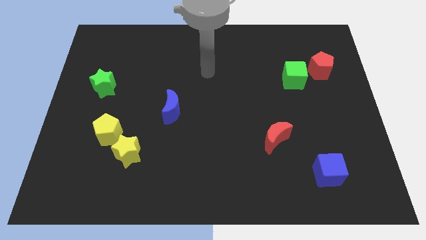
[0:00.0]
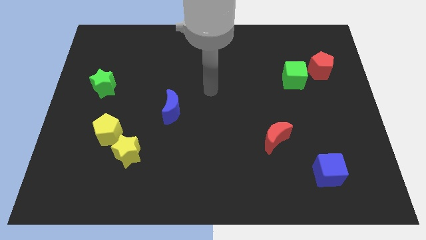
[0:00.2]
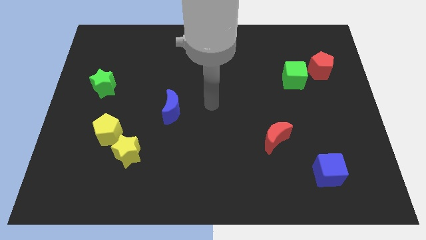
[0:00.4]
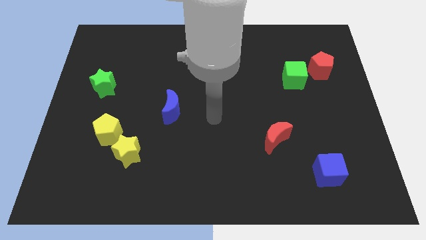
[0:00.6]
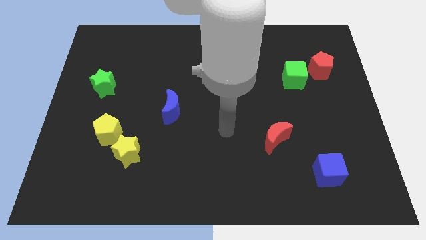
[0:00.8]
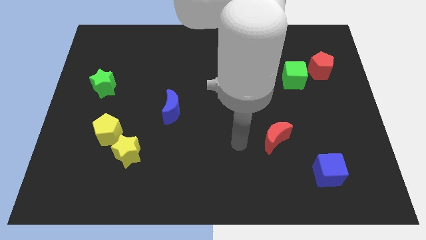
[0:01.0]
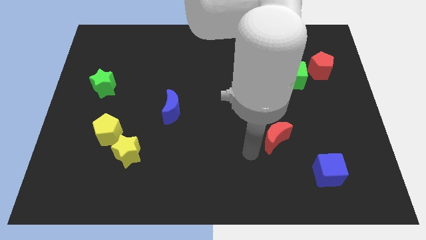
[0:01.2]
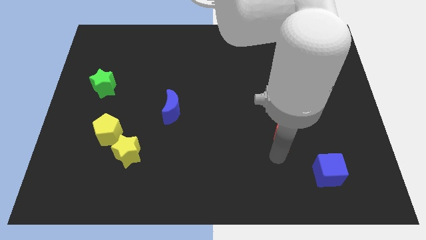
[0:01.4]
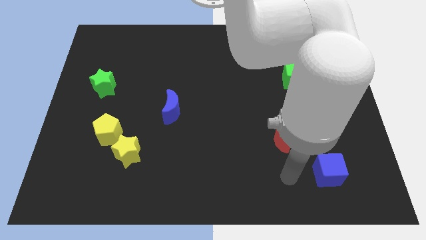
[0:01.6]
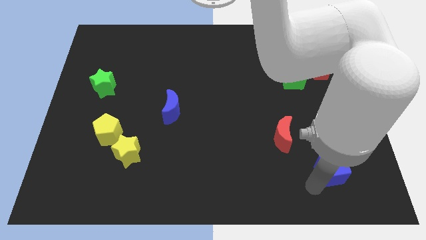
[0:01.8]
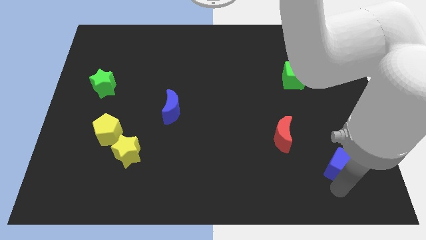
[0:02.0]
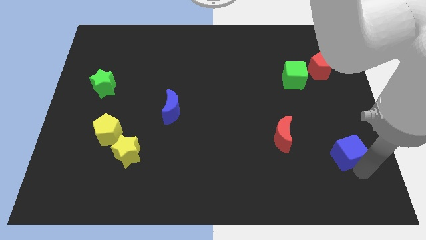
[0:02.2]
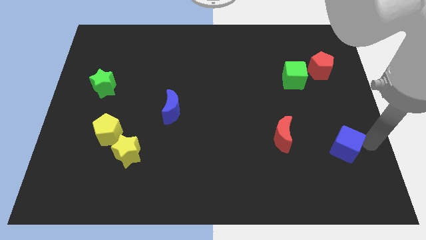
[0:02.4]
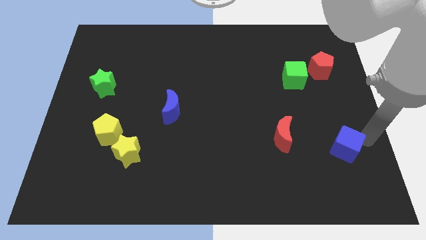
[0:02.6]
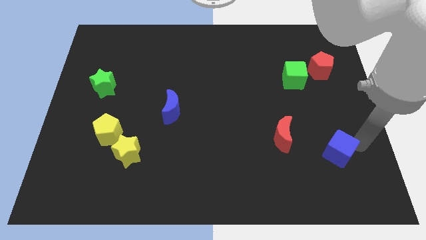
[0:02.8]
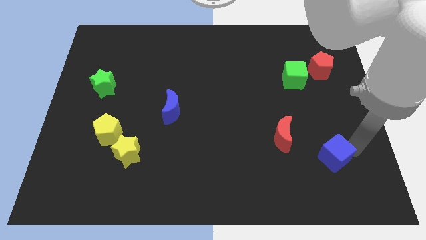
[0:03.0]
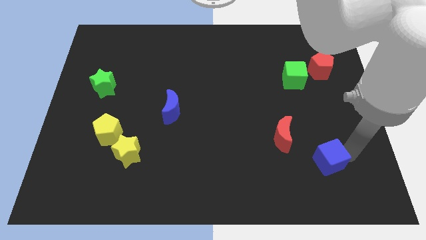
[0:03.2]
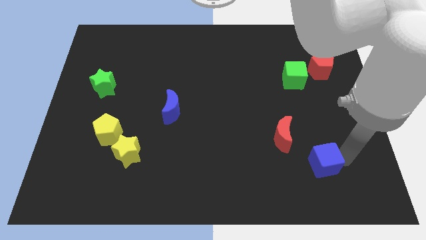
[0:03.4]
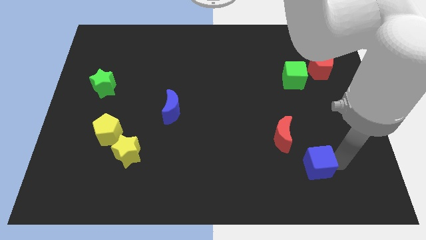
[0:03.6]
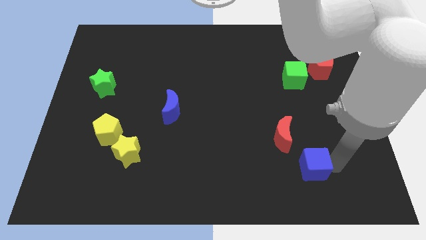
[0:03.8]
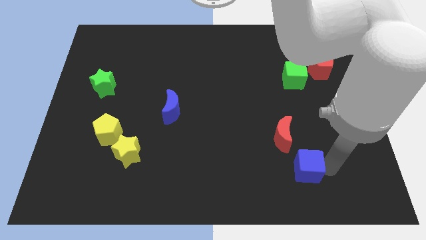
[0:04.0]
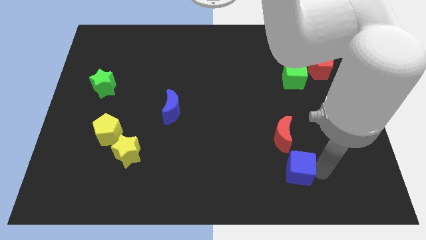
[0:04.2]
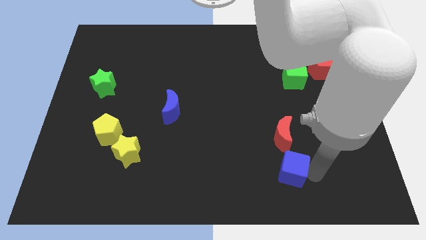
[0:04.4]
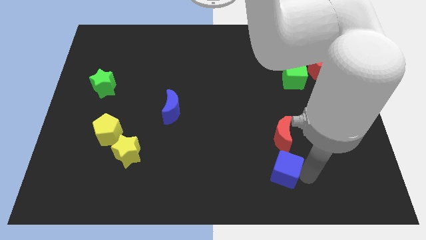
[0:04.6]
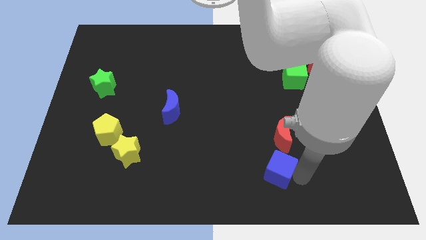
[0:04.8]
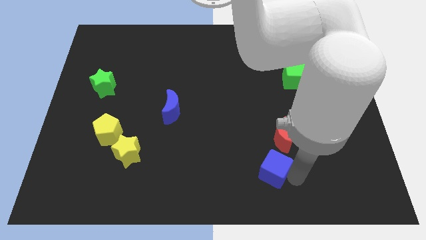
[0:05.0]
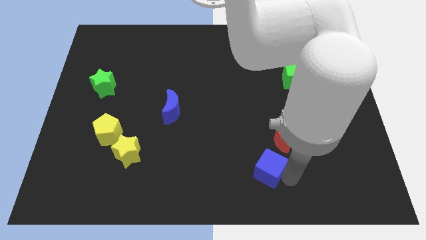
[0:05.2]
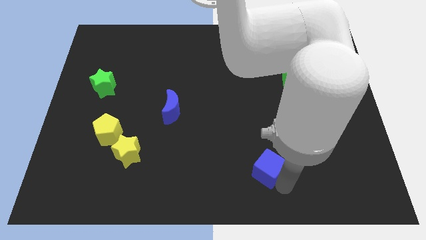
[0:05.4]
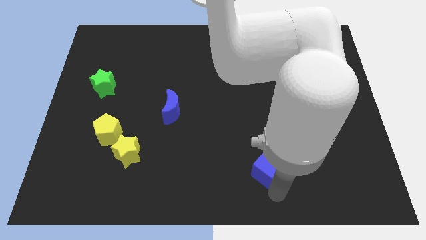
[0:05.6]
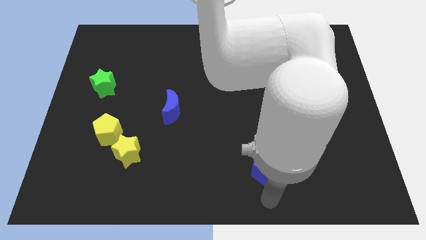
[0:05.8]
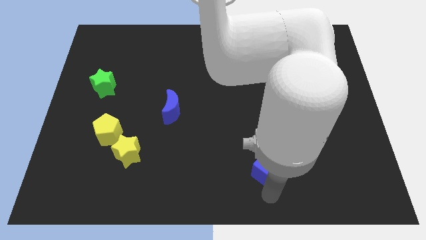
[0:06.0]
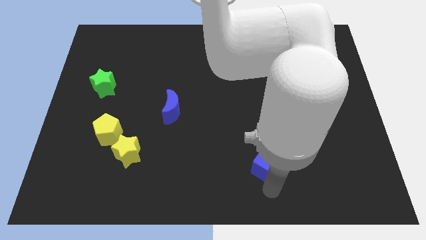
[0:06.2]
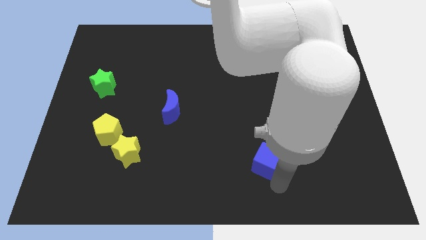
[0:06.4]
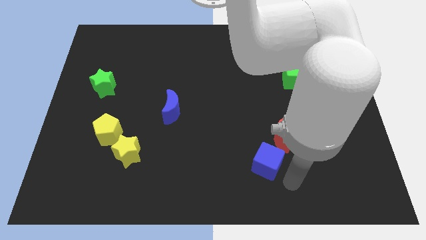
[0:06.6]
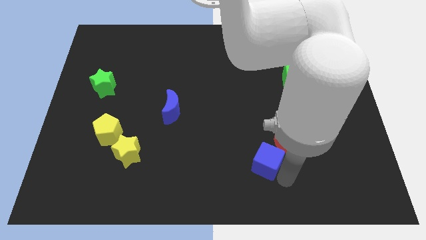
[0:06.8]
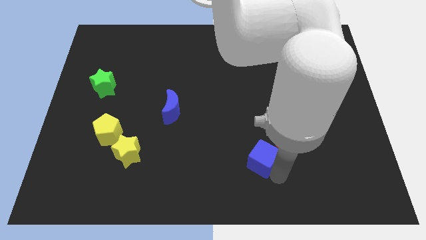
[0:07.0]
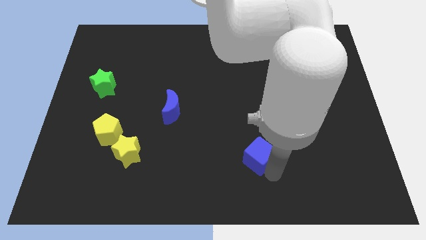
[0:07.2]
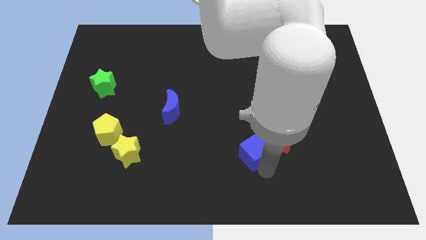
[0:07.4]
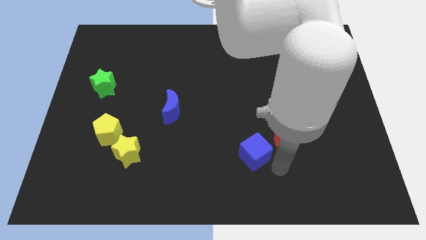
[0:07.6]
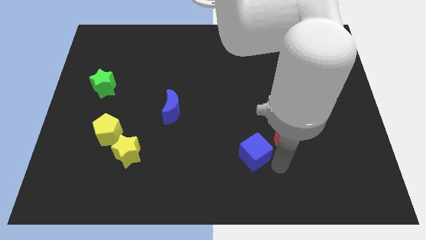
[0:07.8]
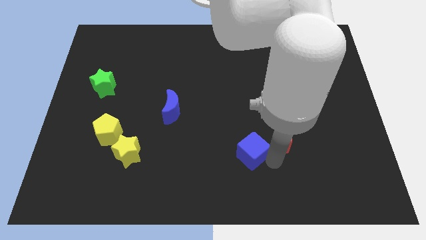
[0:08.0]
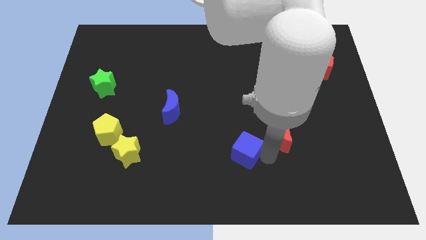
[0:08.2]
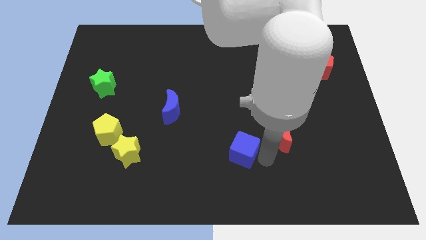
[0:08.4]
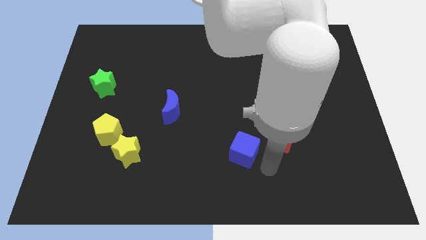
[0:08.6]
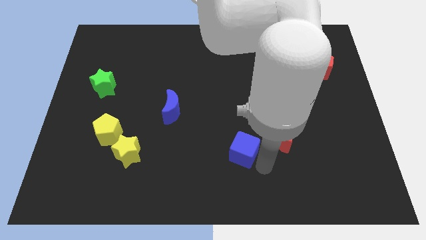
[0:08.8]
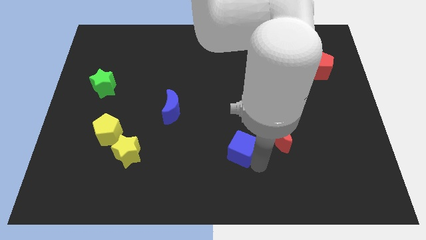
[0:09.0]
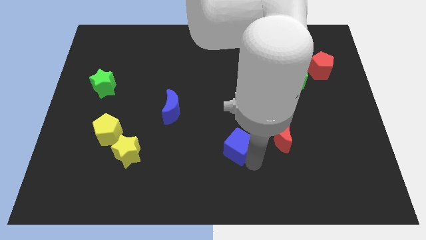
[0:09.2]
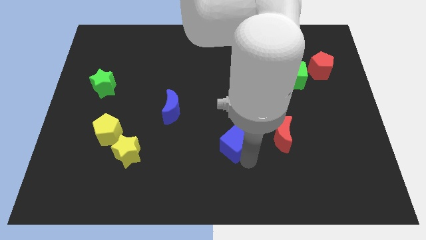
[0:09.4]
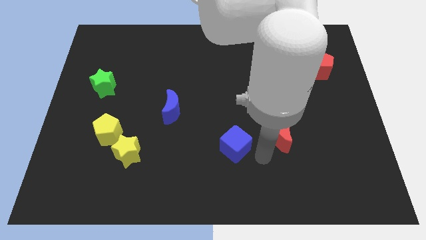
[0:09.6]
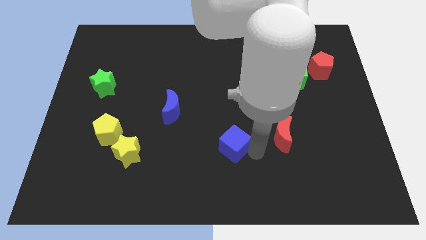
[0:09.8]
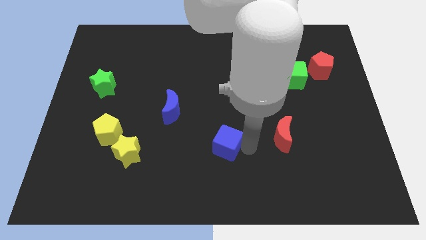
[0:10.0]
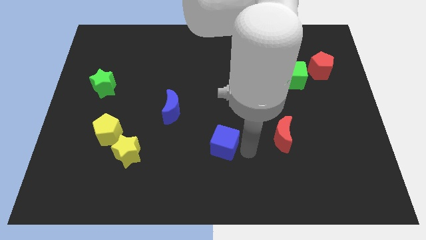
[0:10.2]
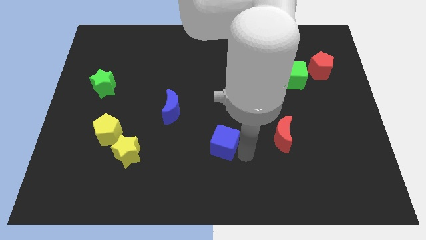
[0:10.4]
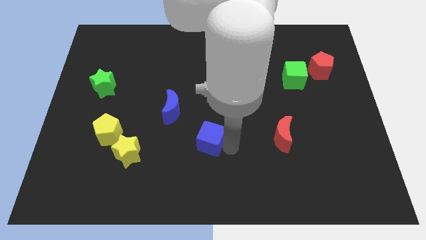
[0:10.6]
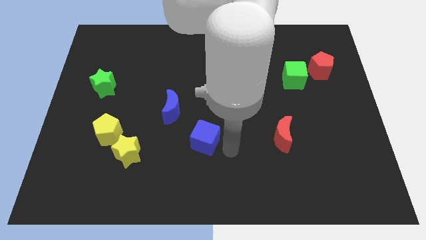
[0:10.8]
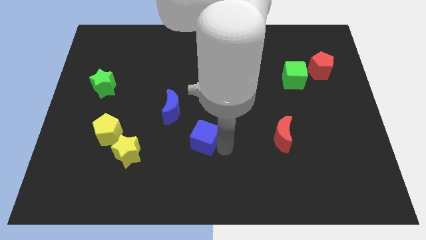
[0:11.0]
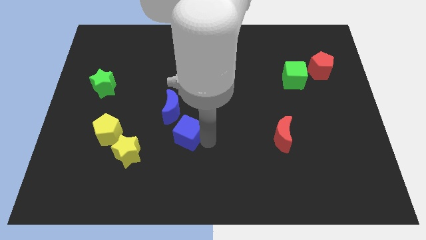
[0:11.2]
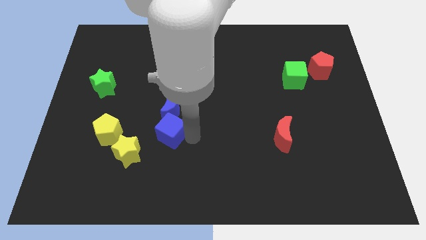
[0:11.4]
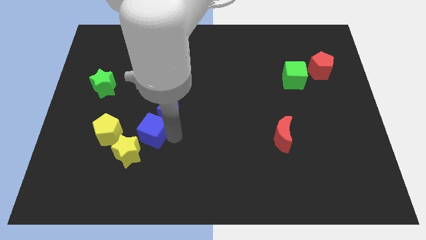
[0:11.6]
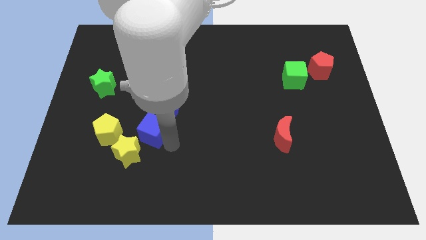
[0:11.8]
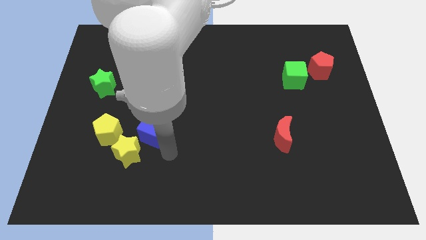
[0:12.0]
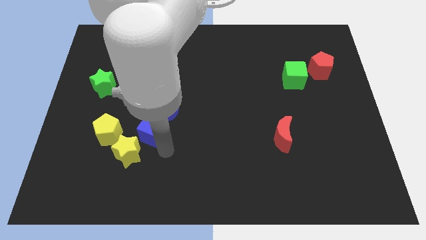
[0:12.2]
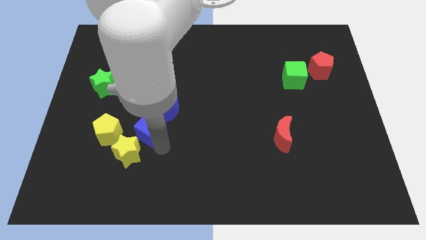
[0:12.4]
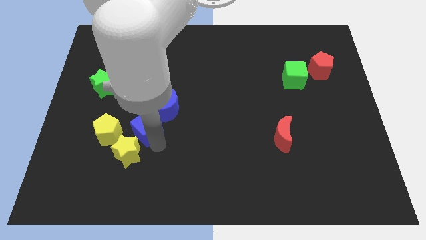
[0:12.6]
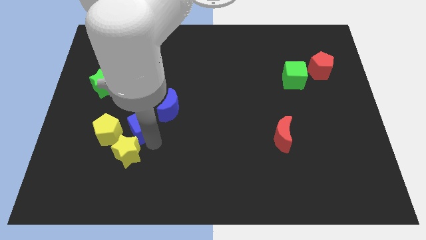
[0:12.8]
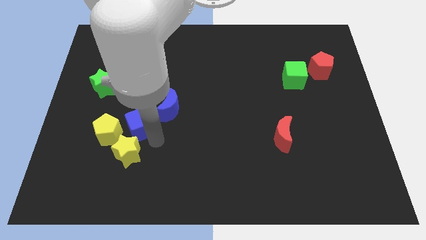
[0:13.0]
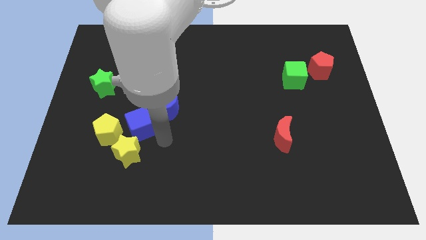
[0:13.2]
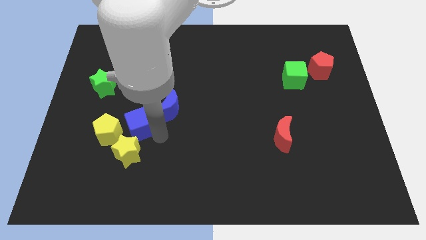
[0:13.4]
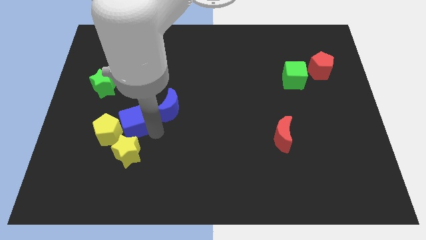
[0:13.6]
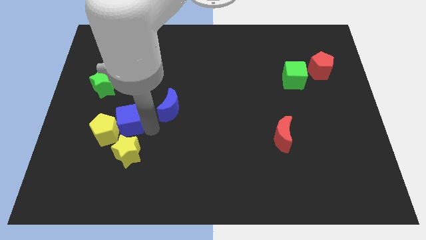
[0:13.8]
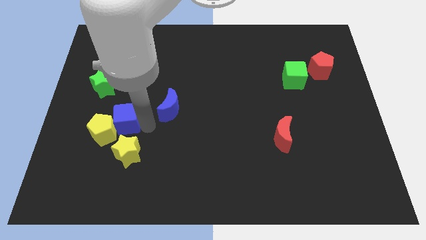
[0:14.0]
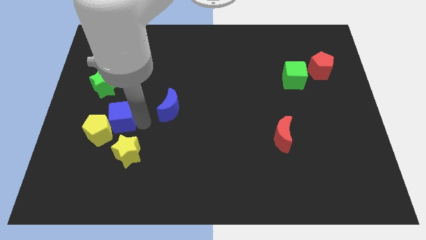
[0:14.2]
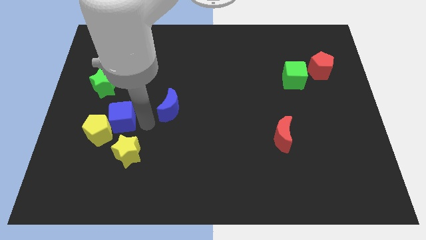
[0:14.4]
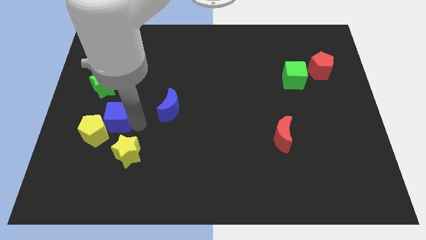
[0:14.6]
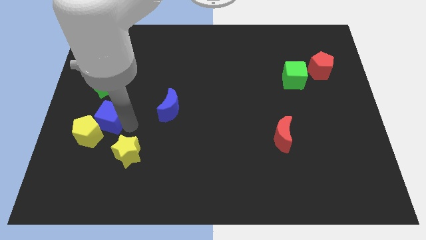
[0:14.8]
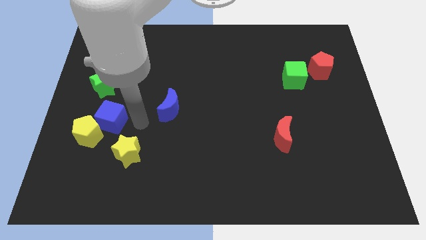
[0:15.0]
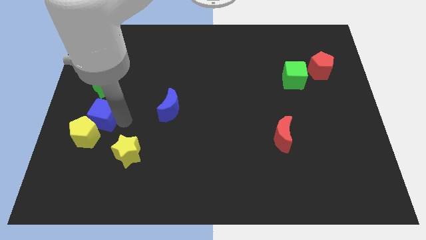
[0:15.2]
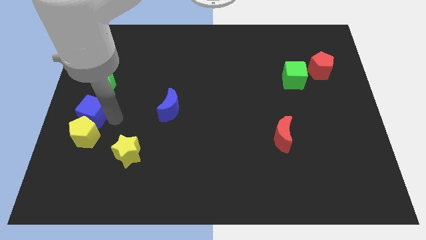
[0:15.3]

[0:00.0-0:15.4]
slide the blue cube to the top left of the yellow pentagon
